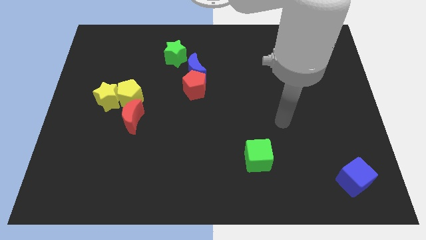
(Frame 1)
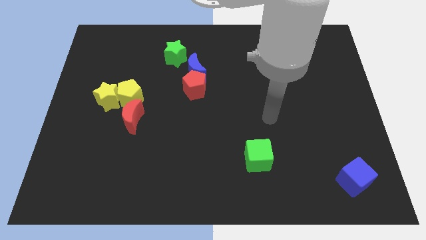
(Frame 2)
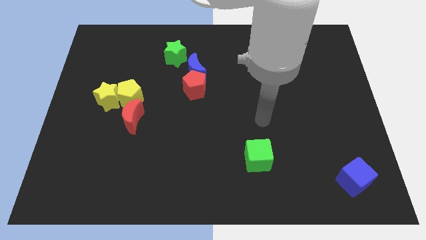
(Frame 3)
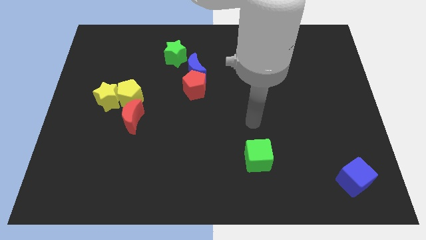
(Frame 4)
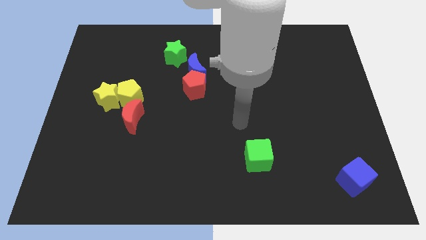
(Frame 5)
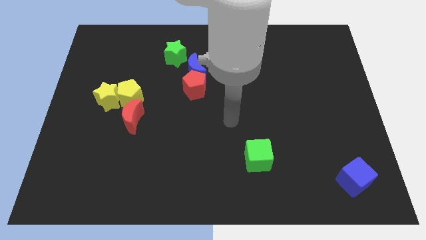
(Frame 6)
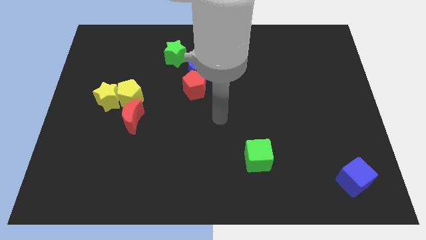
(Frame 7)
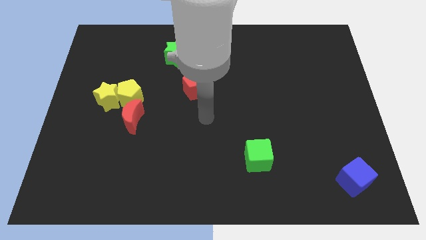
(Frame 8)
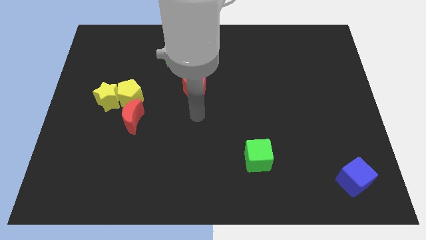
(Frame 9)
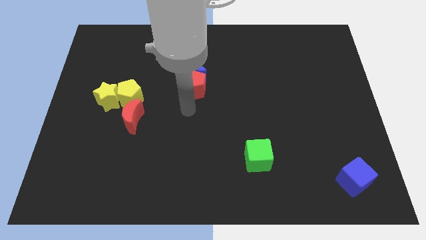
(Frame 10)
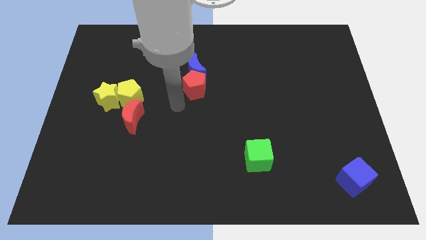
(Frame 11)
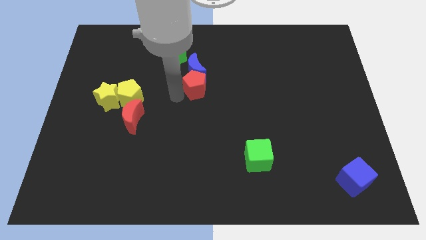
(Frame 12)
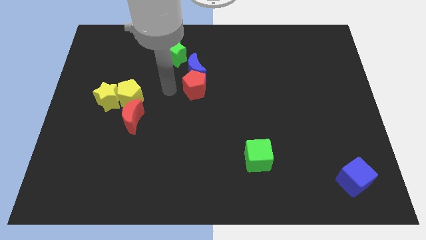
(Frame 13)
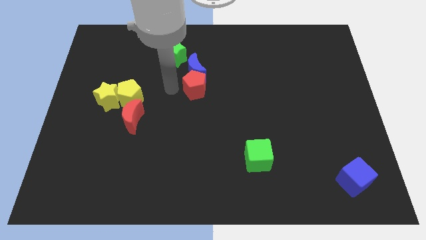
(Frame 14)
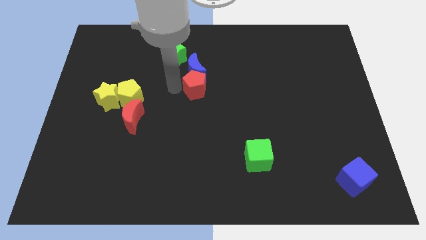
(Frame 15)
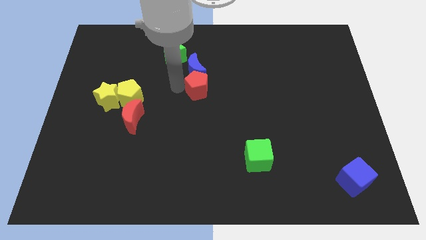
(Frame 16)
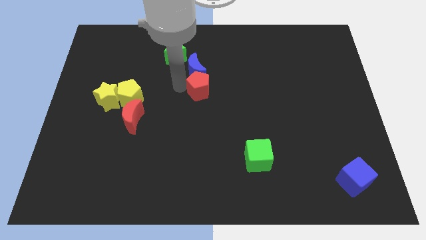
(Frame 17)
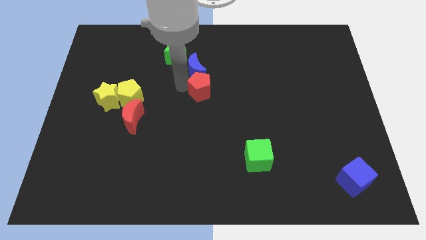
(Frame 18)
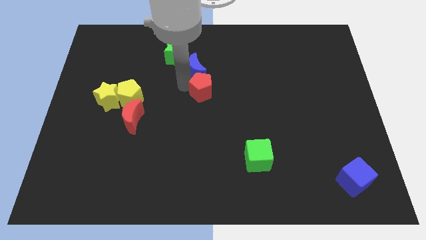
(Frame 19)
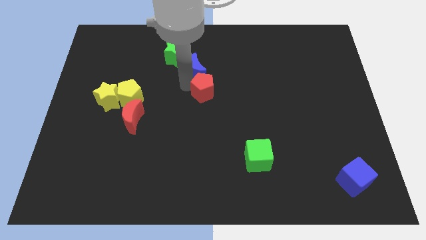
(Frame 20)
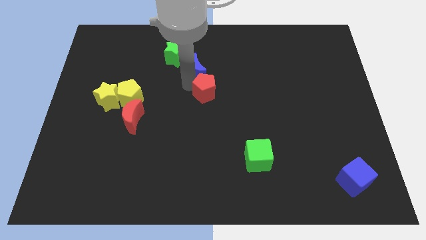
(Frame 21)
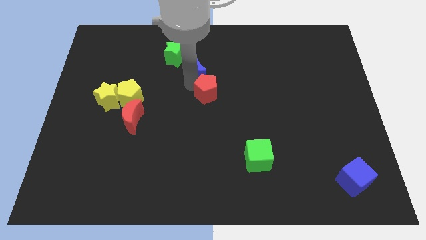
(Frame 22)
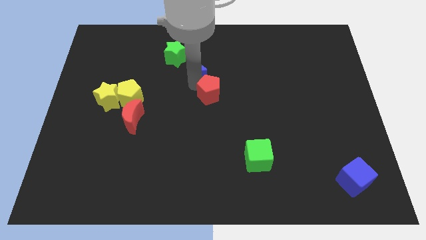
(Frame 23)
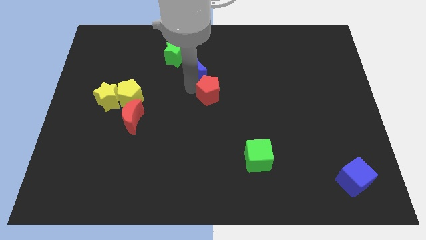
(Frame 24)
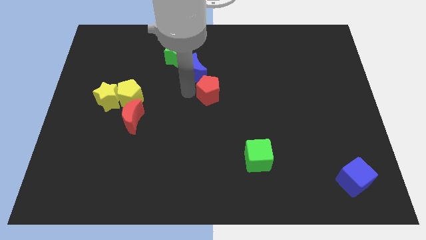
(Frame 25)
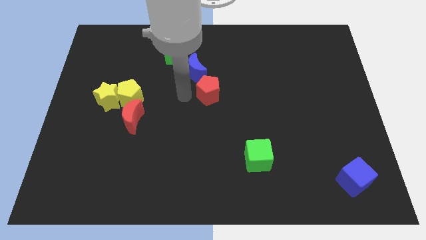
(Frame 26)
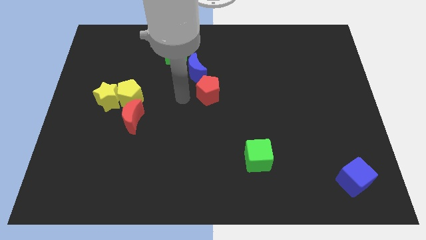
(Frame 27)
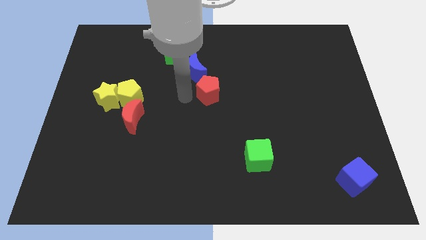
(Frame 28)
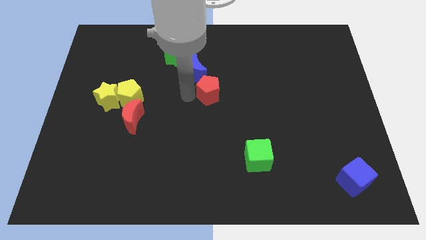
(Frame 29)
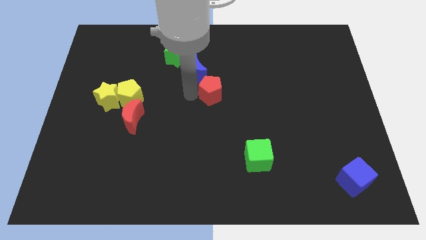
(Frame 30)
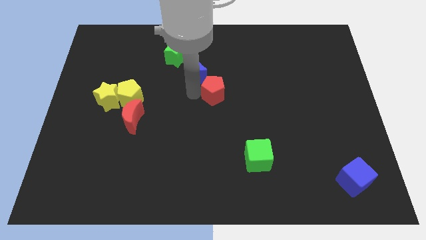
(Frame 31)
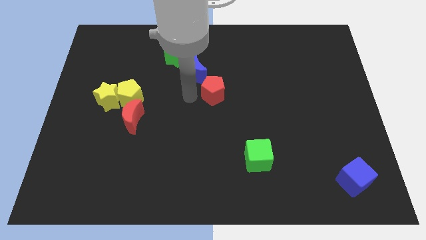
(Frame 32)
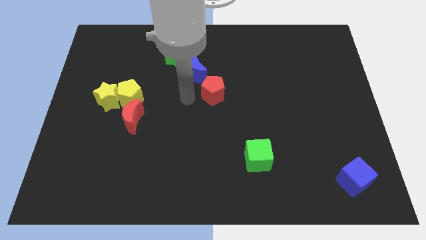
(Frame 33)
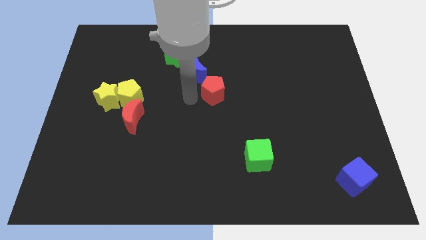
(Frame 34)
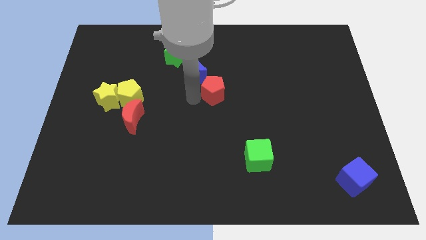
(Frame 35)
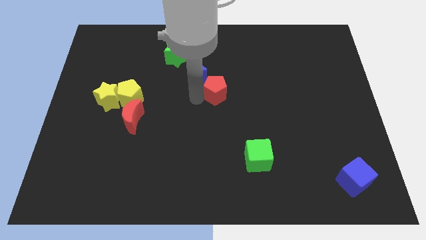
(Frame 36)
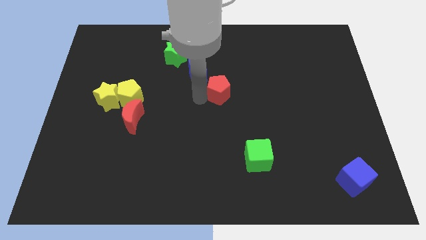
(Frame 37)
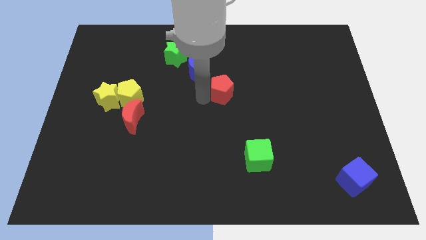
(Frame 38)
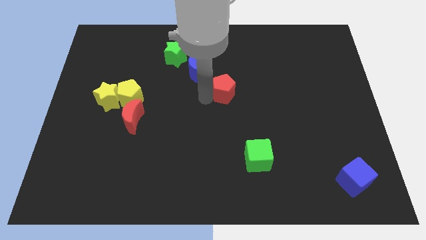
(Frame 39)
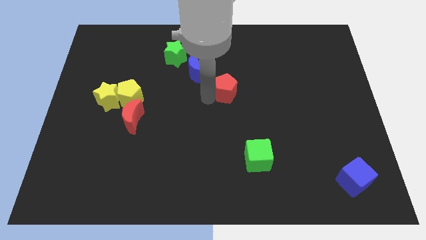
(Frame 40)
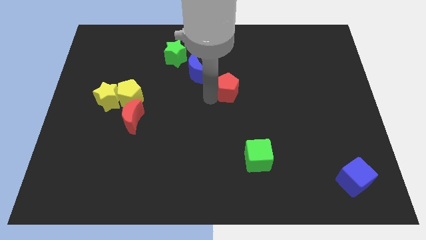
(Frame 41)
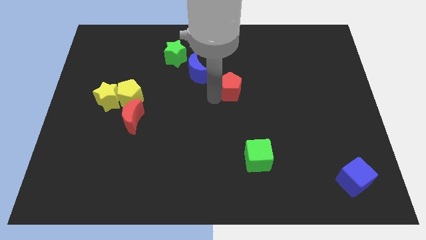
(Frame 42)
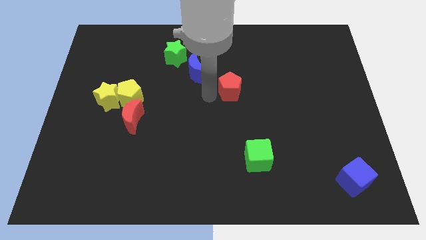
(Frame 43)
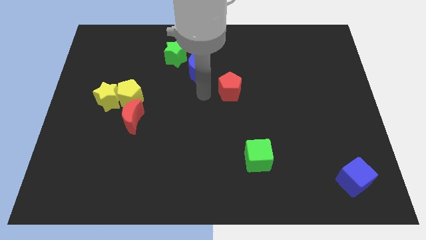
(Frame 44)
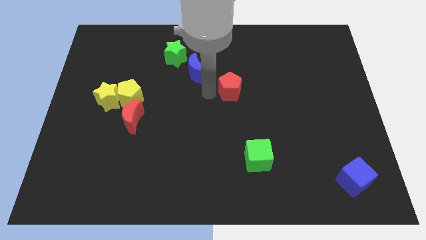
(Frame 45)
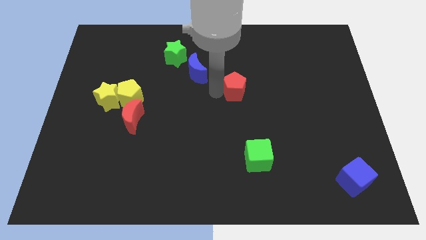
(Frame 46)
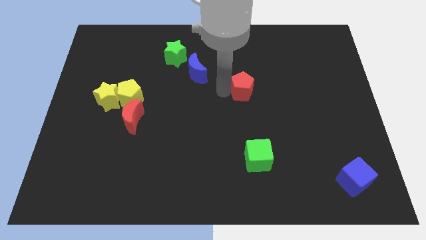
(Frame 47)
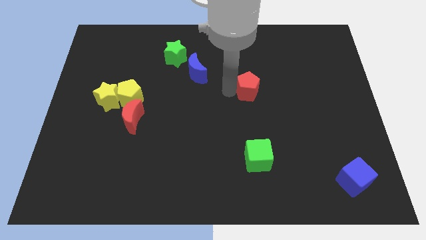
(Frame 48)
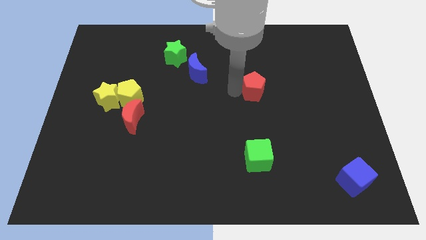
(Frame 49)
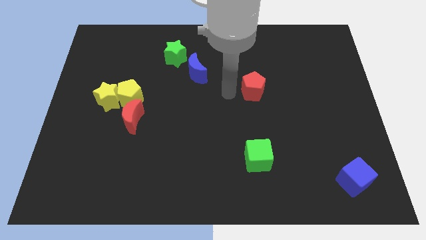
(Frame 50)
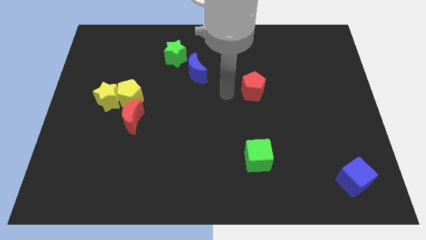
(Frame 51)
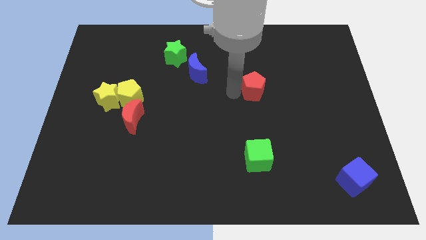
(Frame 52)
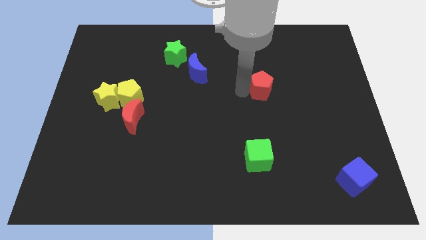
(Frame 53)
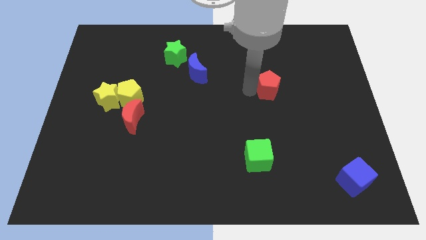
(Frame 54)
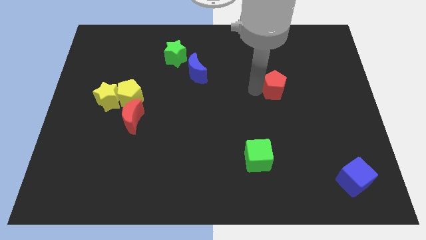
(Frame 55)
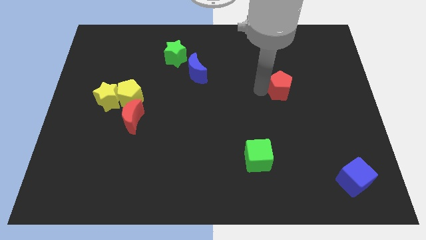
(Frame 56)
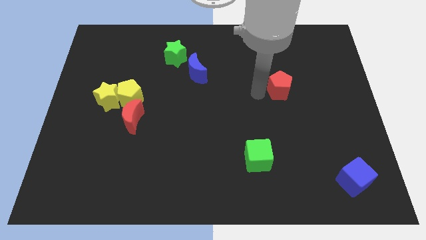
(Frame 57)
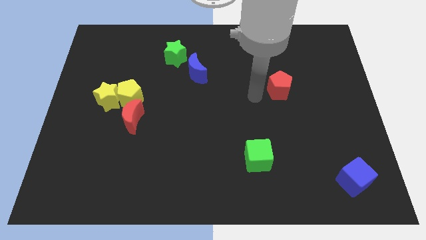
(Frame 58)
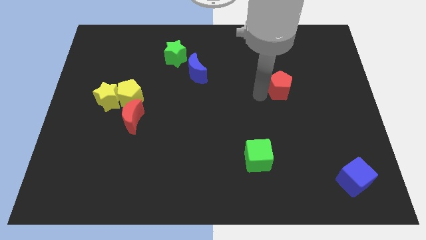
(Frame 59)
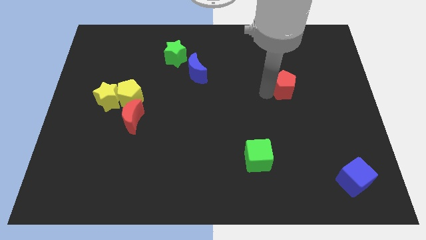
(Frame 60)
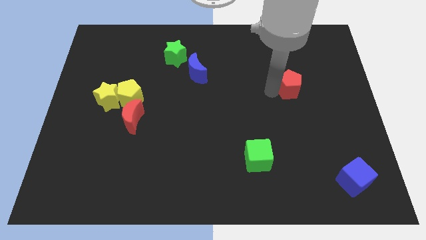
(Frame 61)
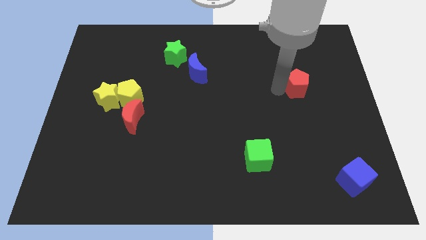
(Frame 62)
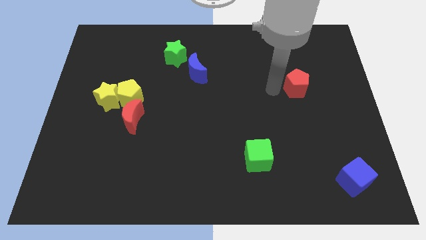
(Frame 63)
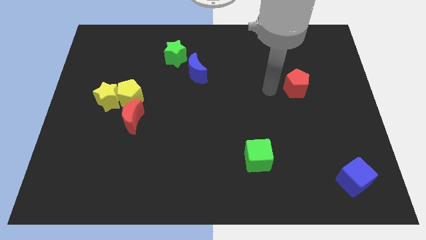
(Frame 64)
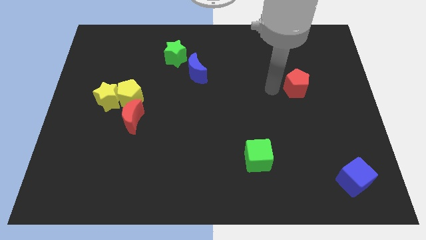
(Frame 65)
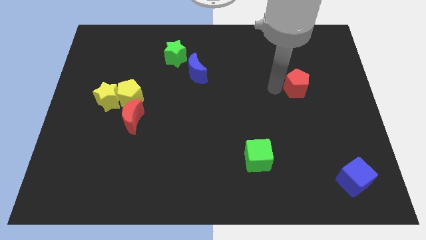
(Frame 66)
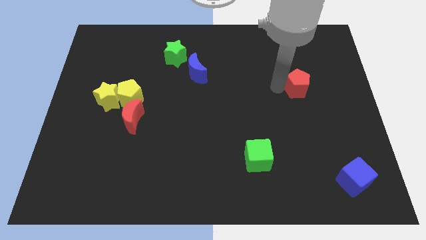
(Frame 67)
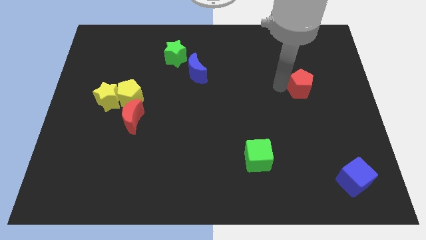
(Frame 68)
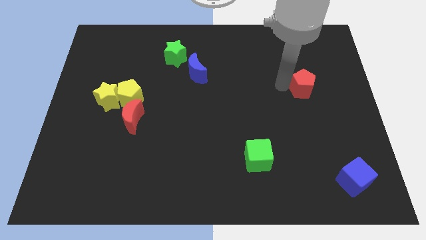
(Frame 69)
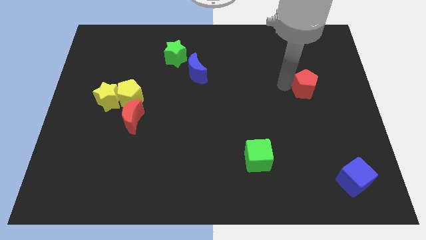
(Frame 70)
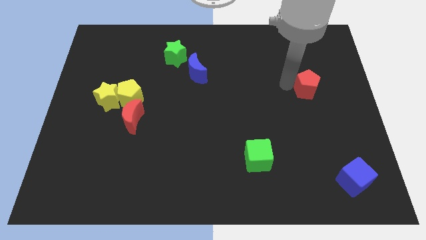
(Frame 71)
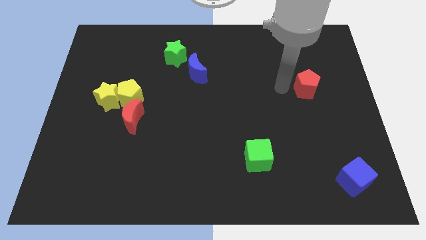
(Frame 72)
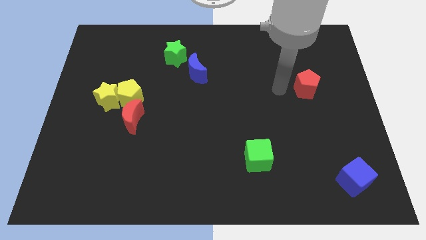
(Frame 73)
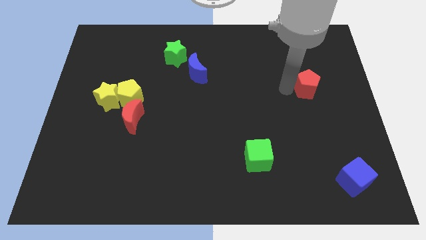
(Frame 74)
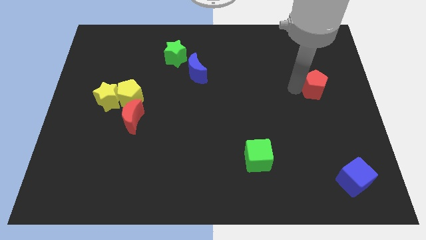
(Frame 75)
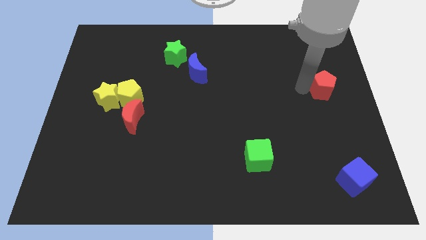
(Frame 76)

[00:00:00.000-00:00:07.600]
put the red pentagon to the right side of the board
